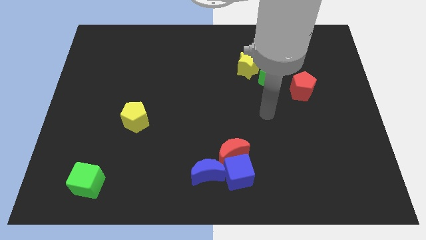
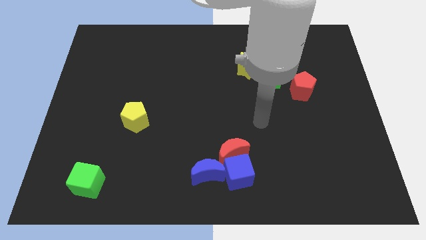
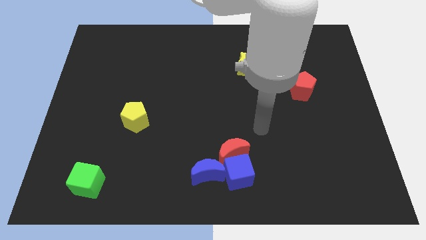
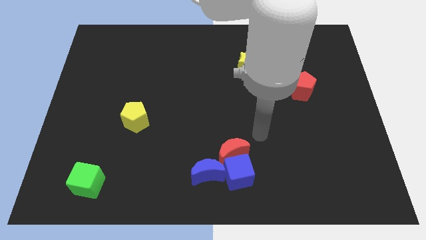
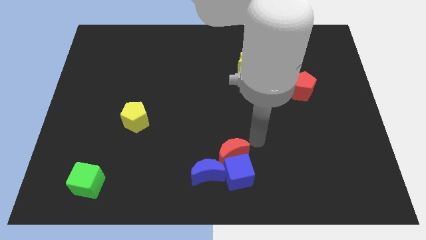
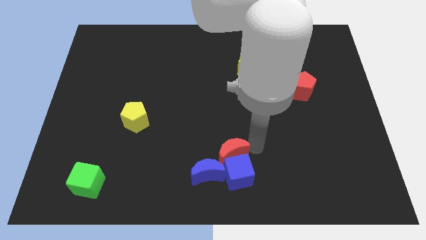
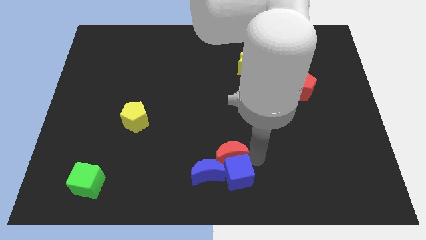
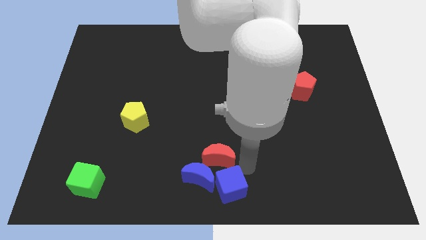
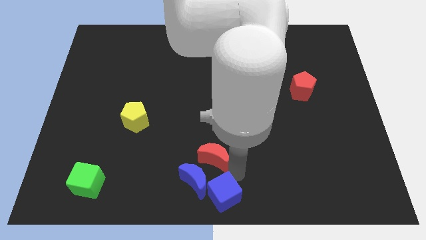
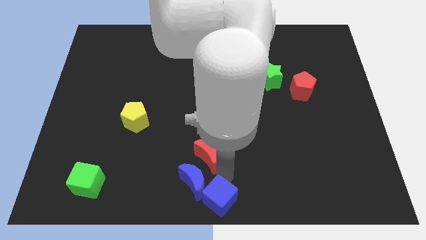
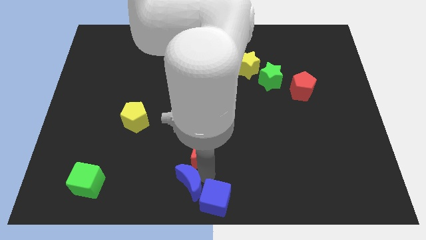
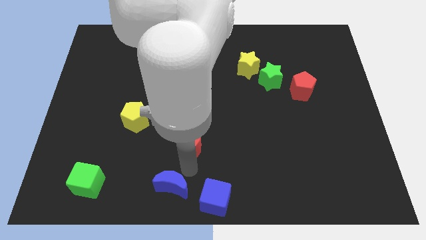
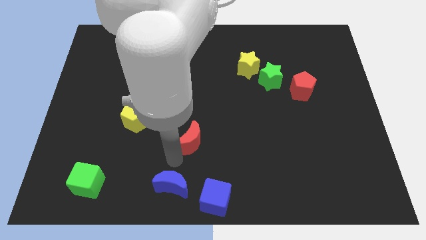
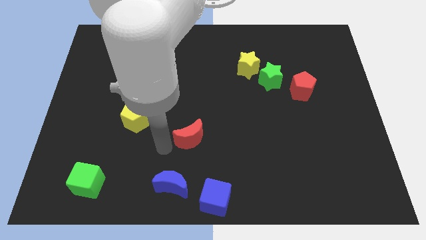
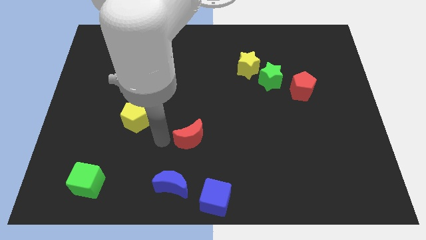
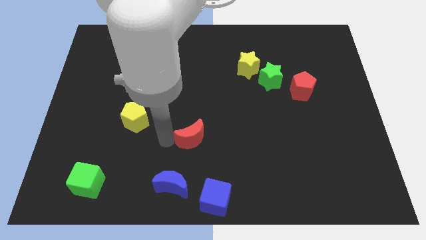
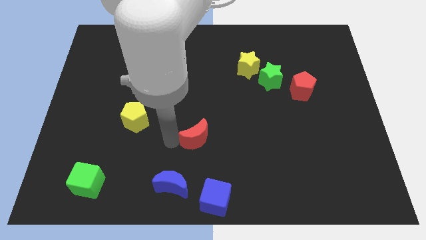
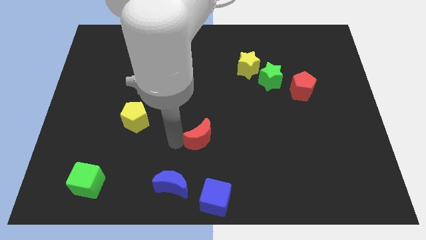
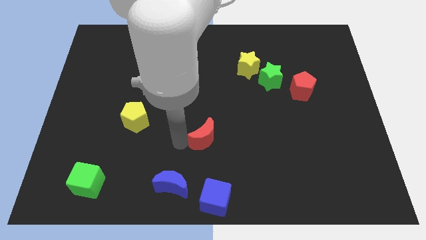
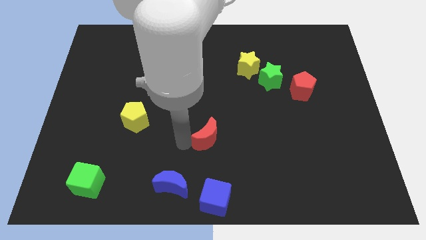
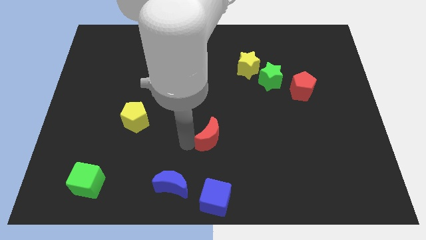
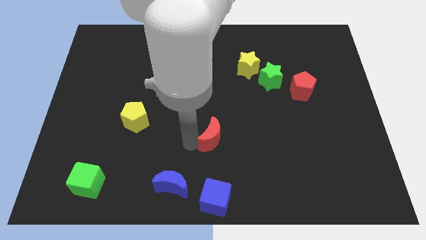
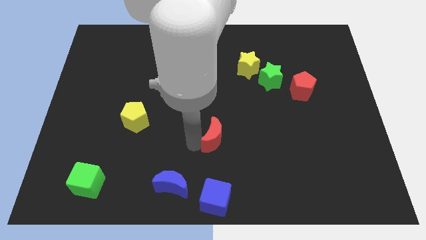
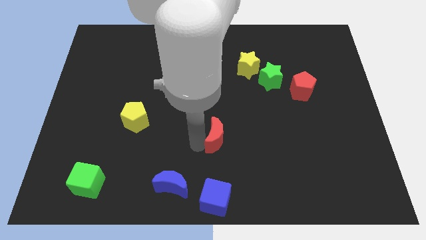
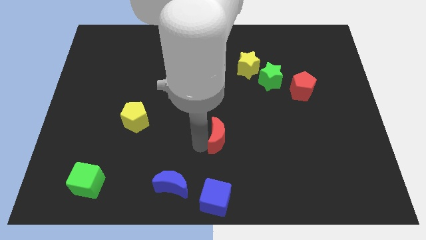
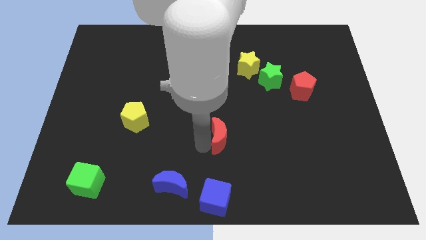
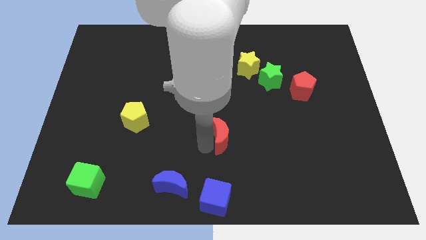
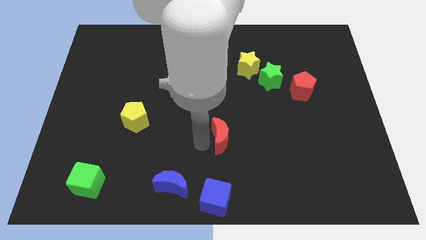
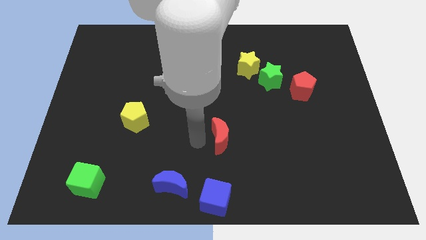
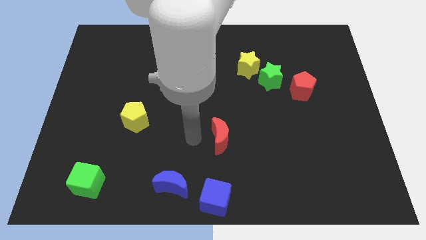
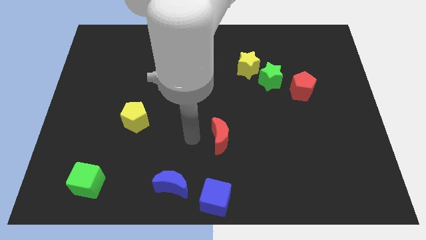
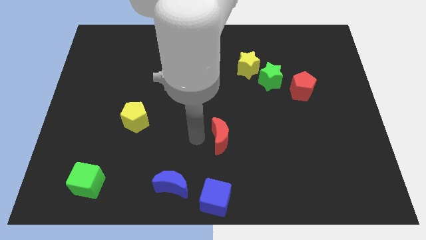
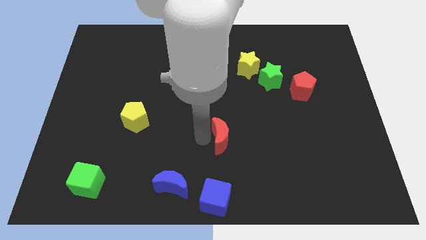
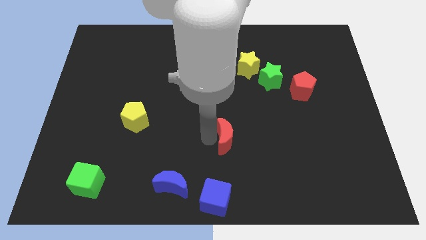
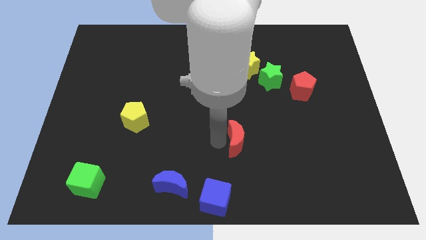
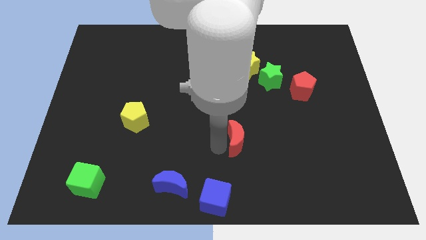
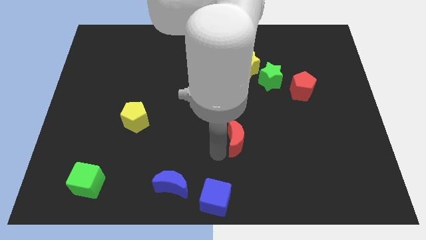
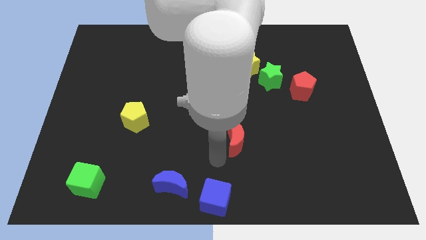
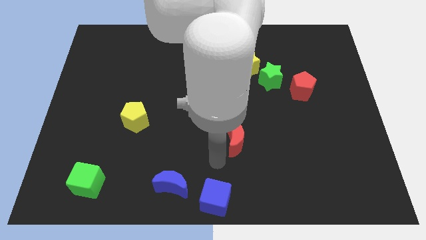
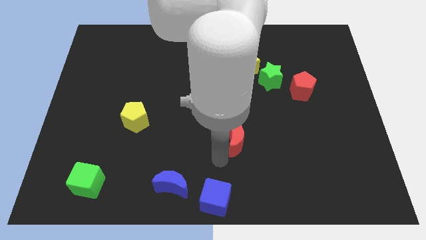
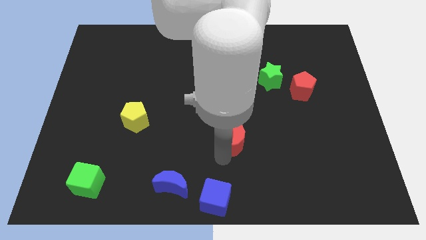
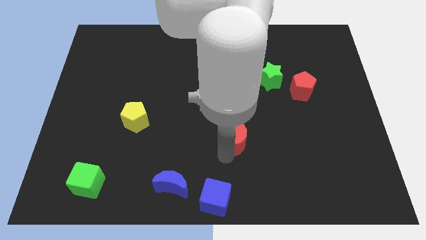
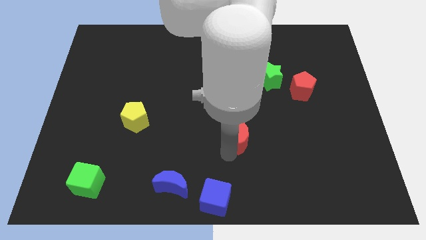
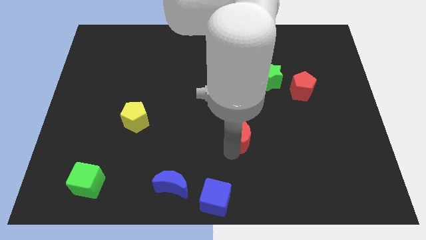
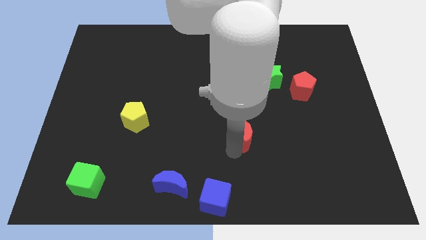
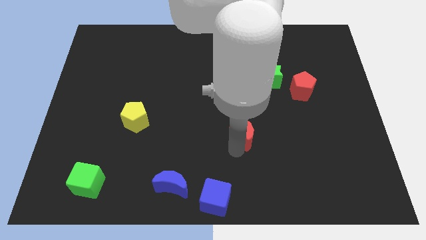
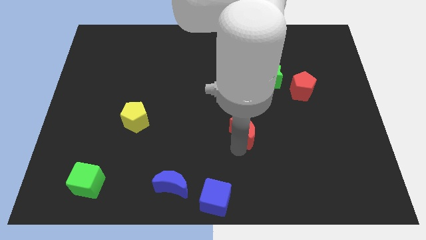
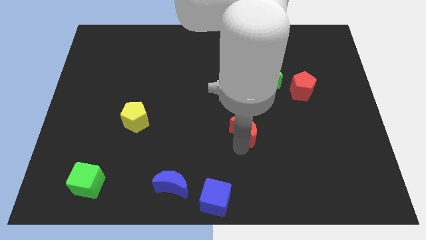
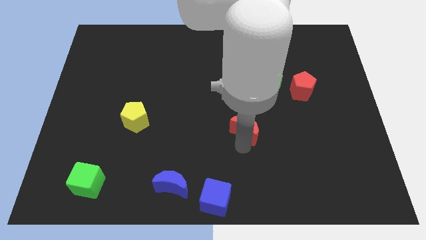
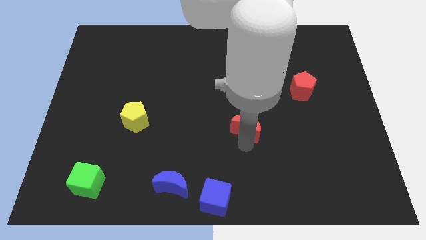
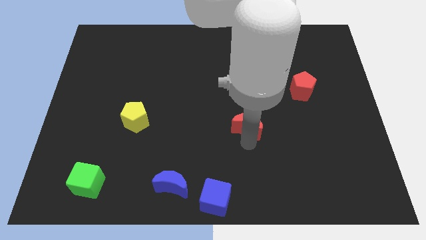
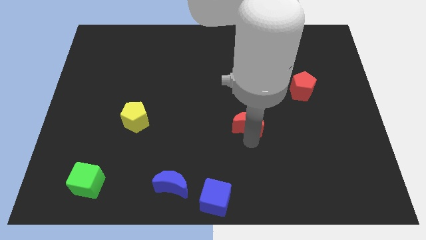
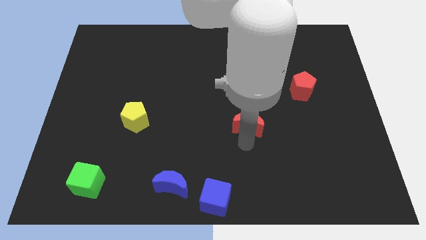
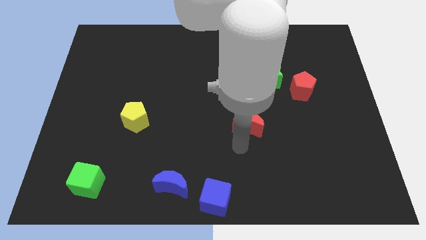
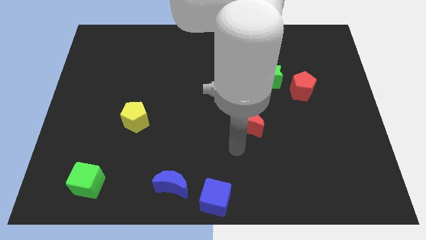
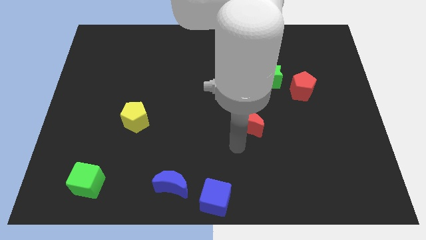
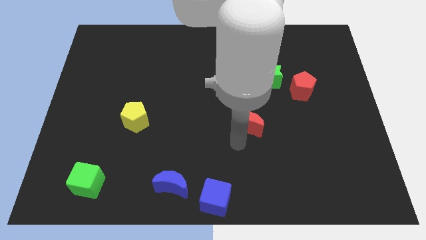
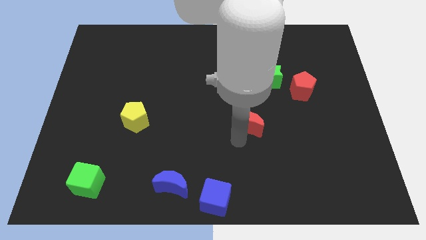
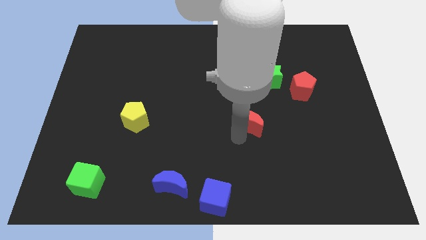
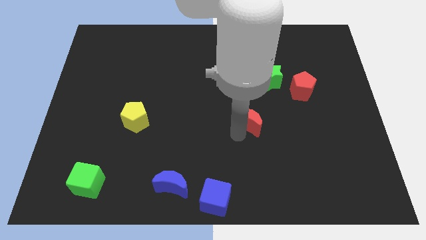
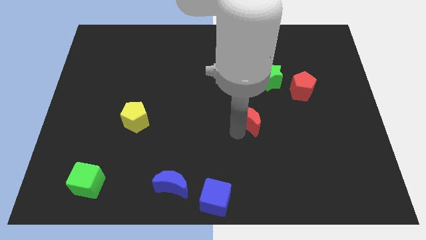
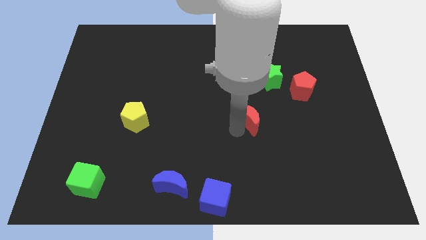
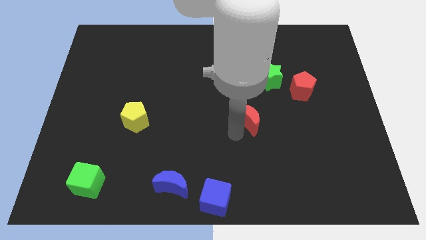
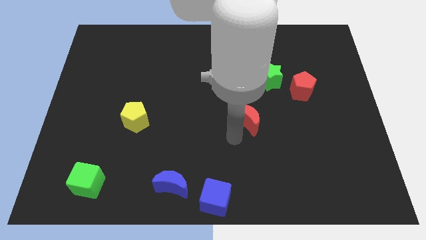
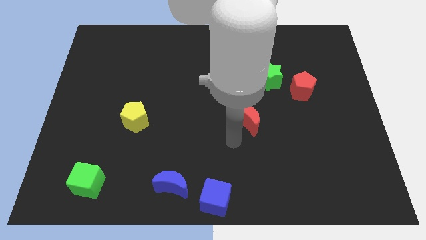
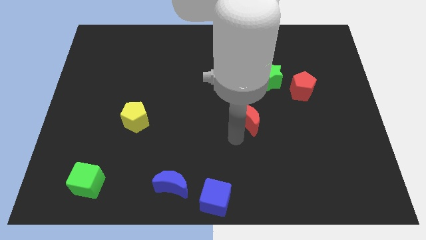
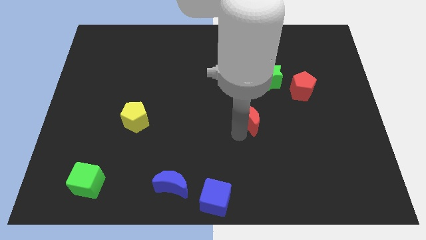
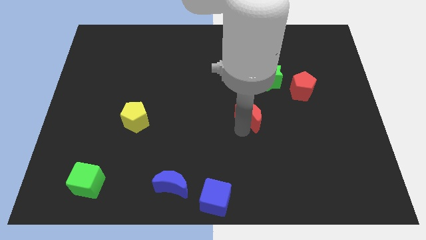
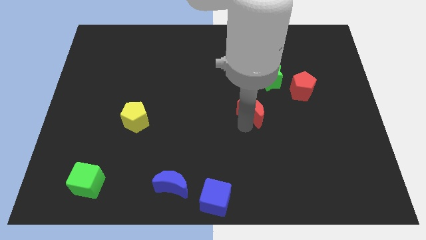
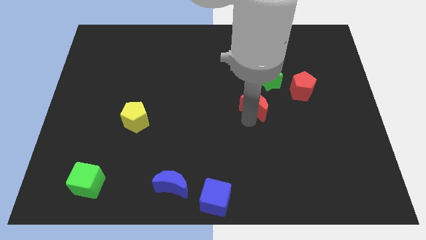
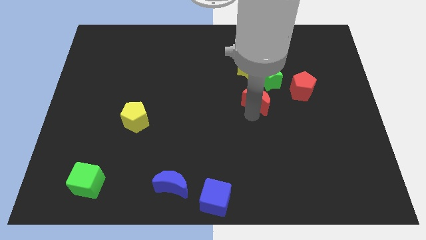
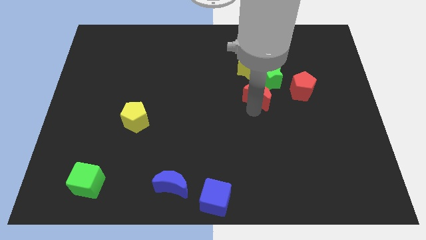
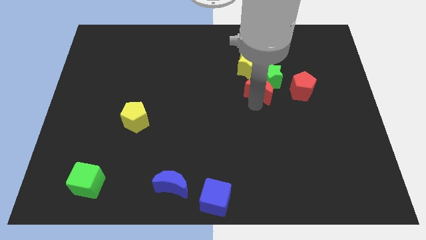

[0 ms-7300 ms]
slide the red moon to the green star
